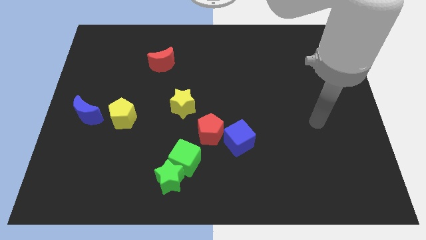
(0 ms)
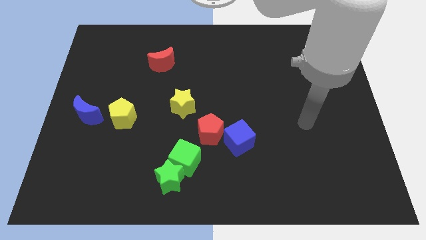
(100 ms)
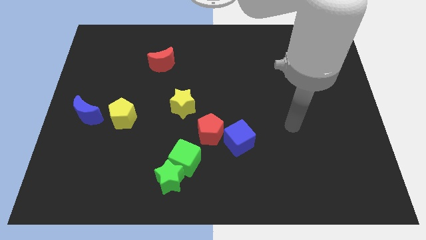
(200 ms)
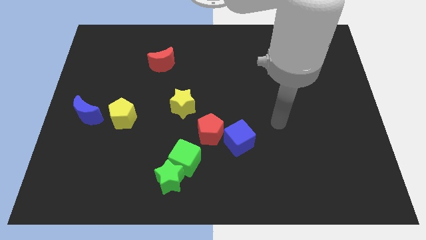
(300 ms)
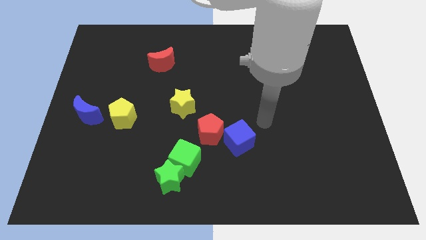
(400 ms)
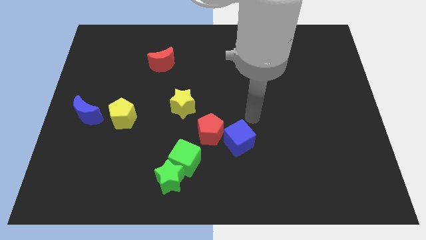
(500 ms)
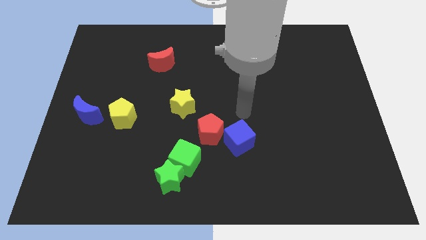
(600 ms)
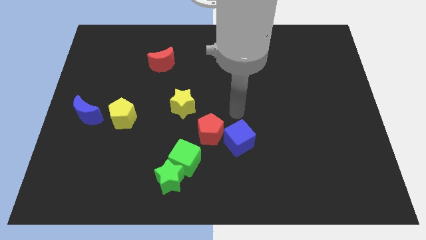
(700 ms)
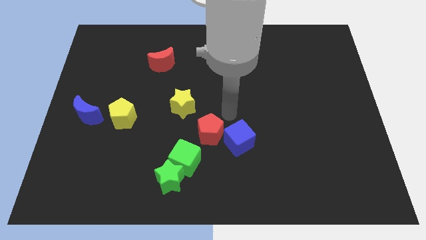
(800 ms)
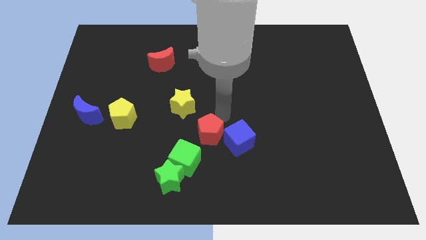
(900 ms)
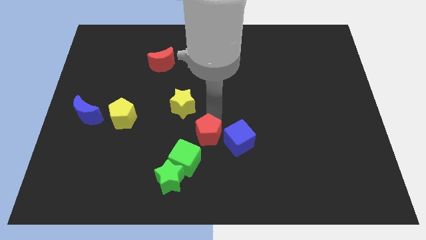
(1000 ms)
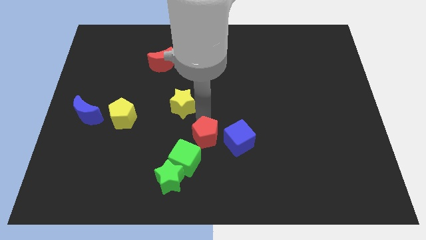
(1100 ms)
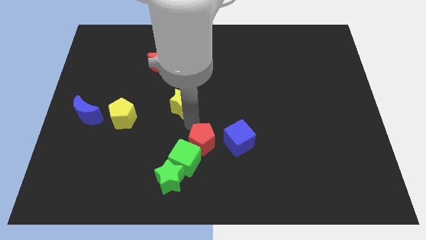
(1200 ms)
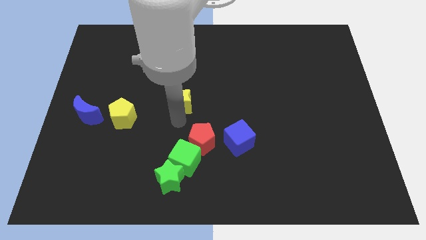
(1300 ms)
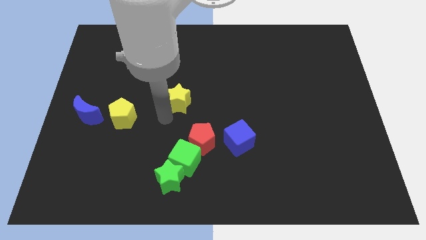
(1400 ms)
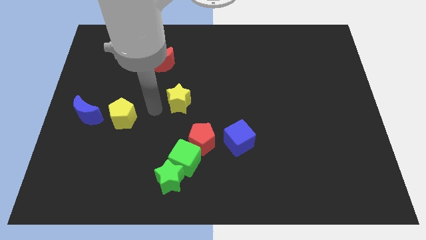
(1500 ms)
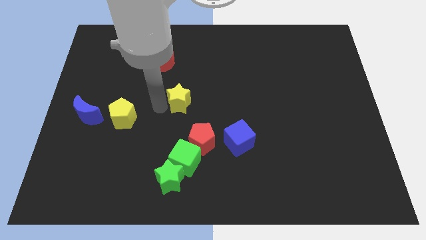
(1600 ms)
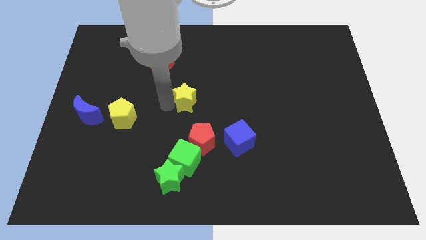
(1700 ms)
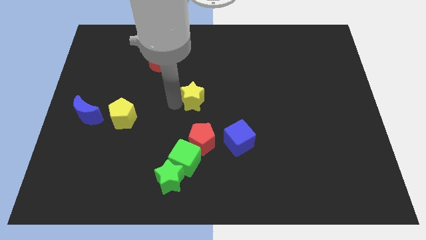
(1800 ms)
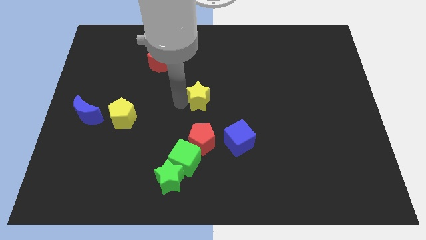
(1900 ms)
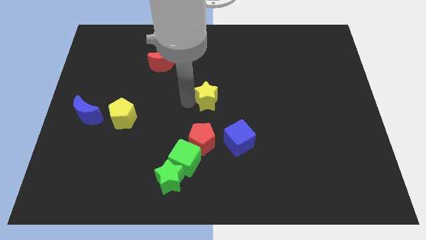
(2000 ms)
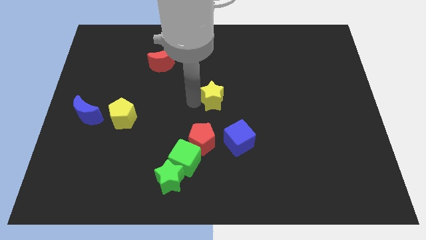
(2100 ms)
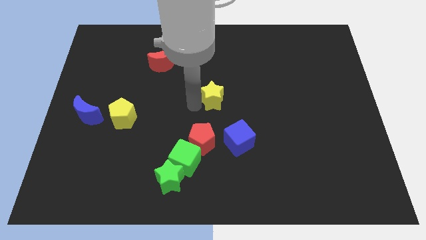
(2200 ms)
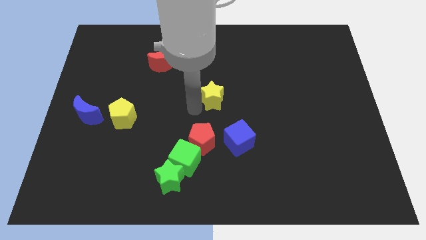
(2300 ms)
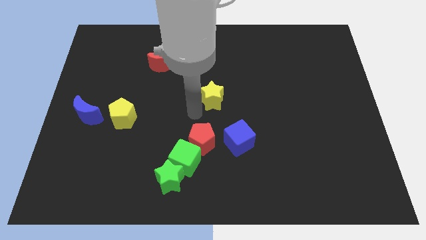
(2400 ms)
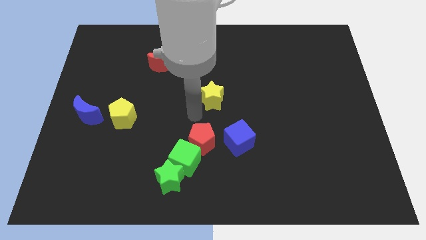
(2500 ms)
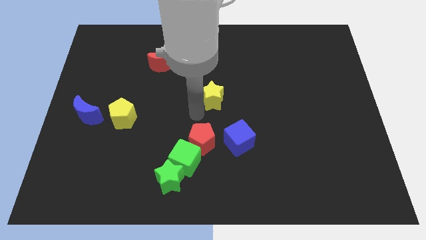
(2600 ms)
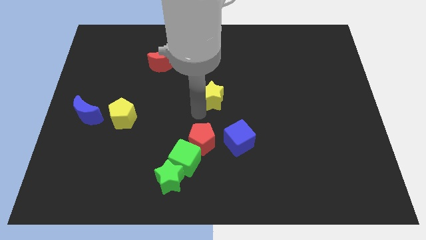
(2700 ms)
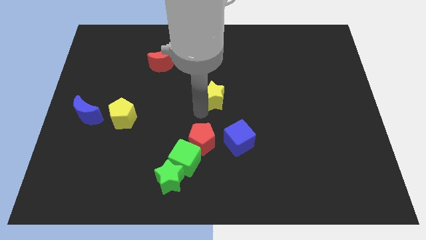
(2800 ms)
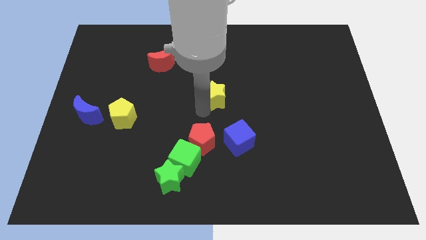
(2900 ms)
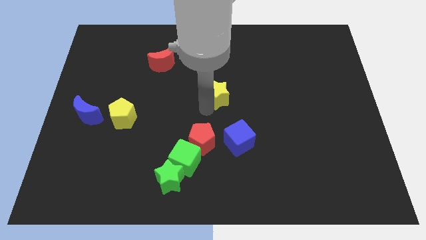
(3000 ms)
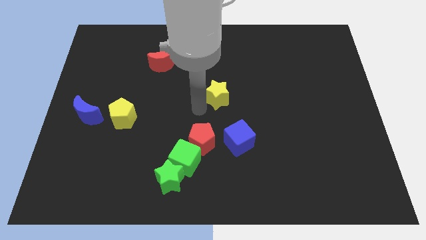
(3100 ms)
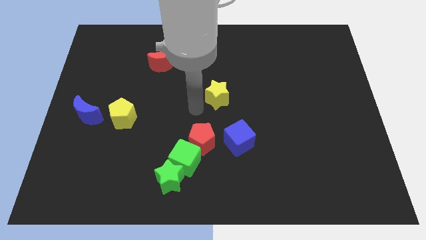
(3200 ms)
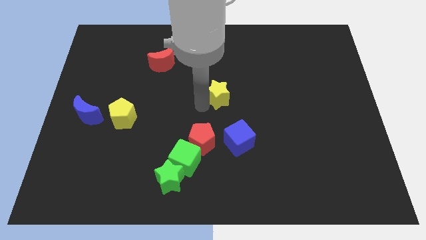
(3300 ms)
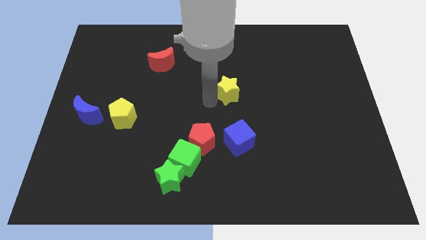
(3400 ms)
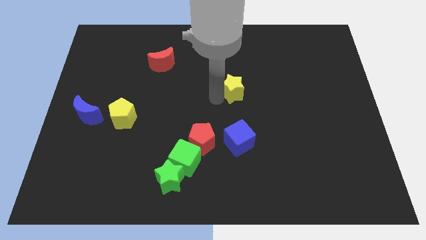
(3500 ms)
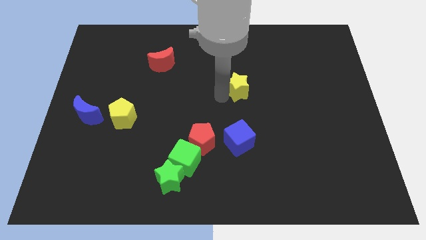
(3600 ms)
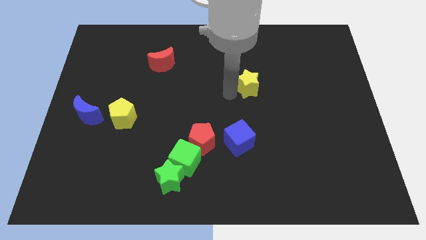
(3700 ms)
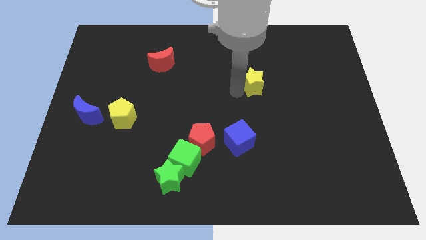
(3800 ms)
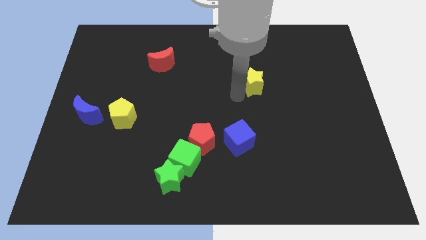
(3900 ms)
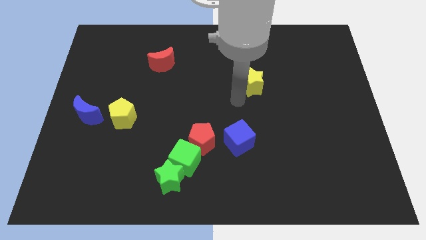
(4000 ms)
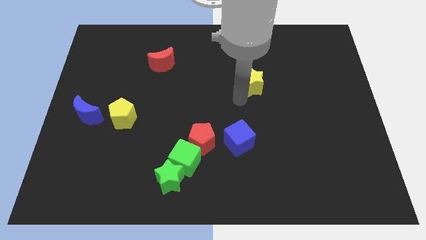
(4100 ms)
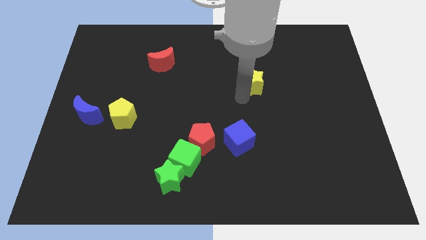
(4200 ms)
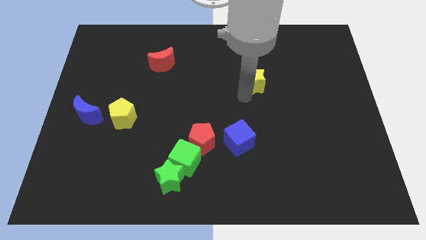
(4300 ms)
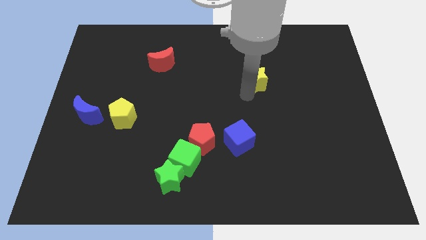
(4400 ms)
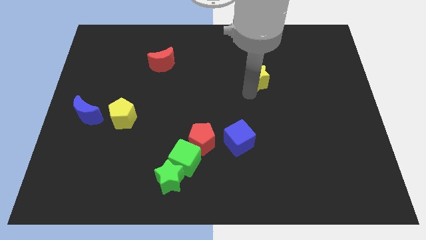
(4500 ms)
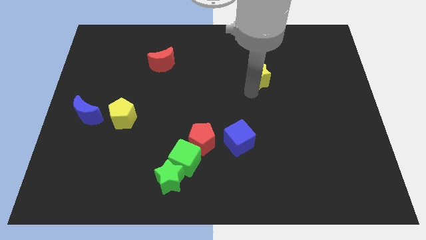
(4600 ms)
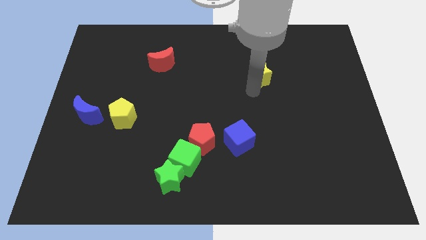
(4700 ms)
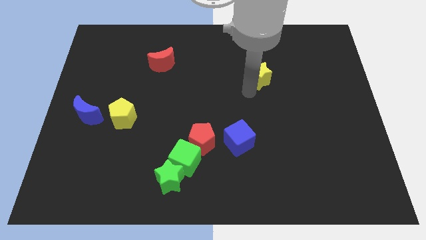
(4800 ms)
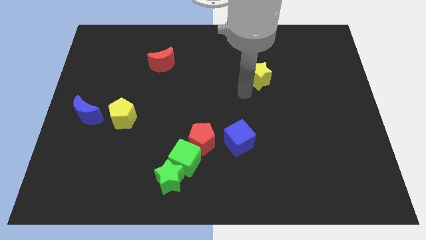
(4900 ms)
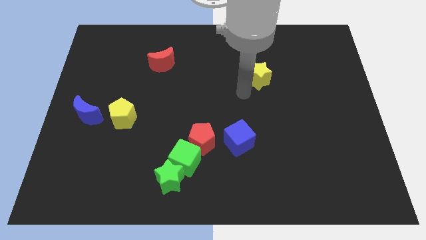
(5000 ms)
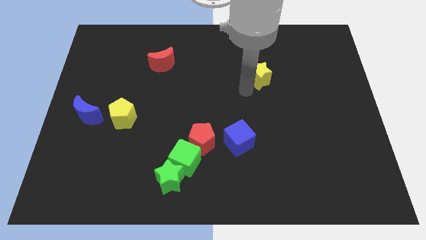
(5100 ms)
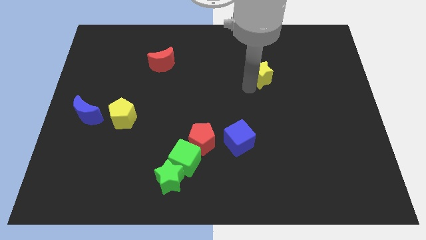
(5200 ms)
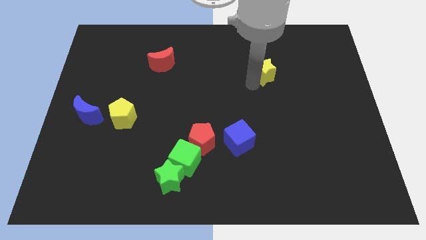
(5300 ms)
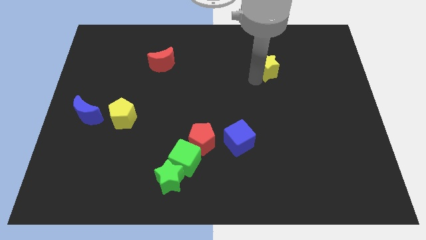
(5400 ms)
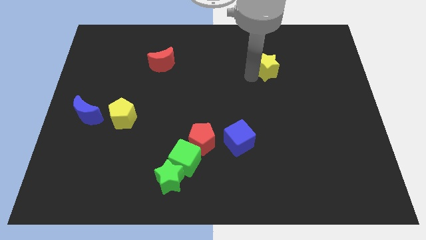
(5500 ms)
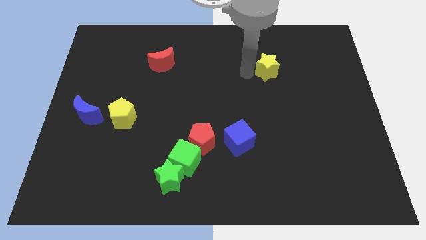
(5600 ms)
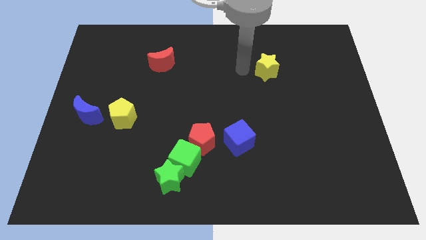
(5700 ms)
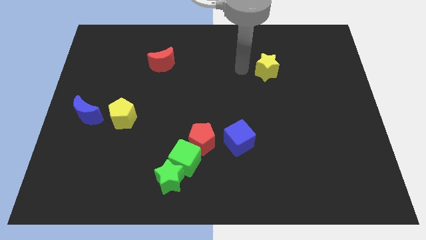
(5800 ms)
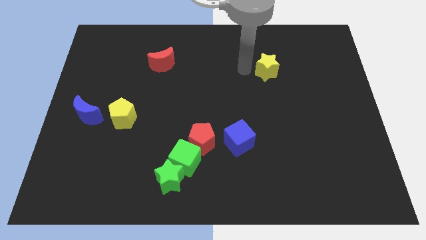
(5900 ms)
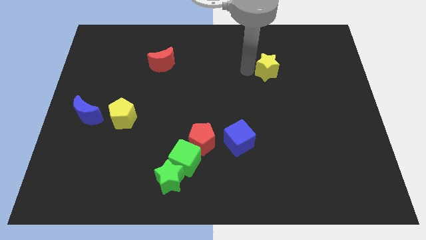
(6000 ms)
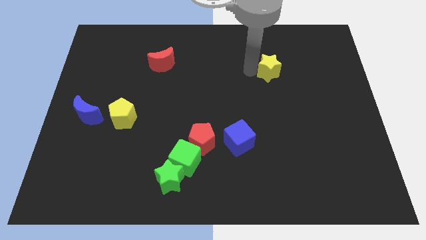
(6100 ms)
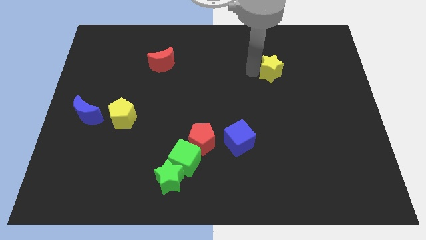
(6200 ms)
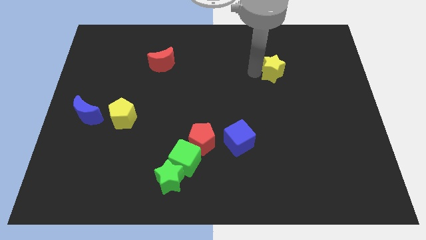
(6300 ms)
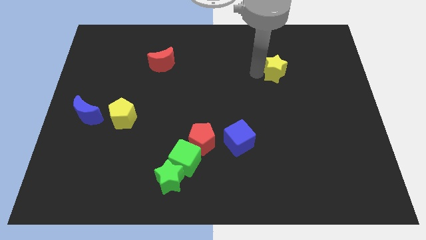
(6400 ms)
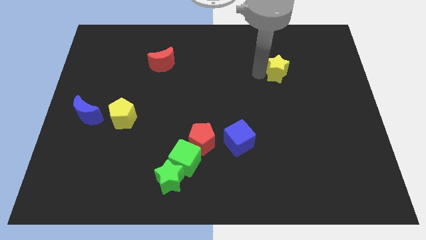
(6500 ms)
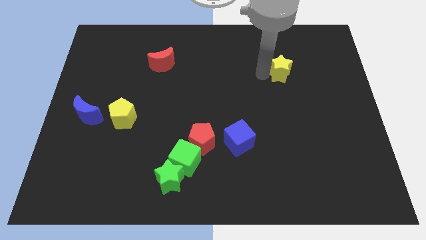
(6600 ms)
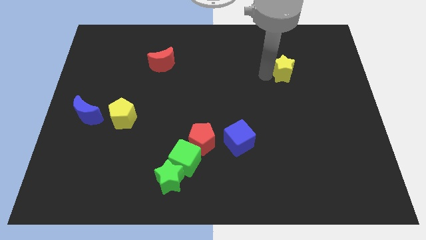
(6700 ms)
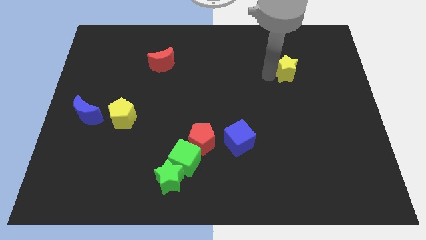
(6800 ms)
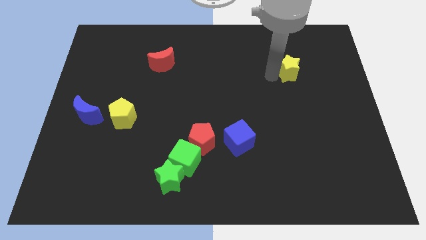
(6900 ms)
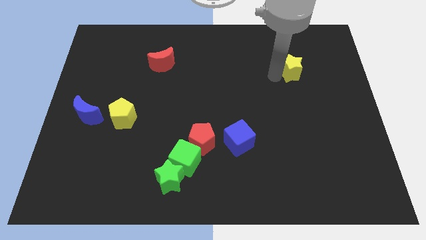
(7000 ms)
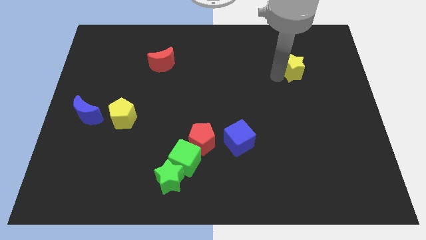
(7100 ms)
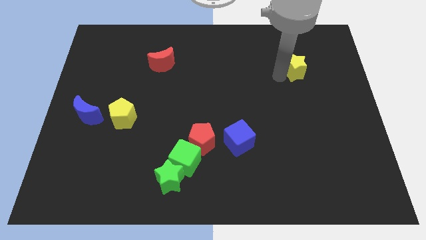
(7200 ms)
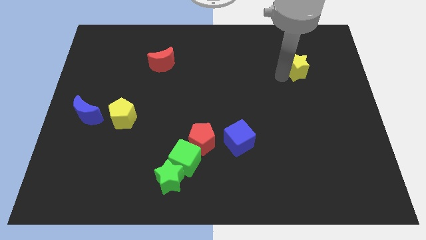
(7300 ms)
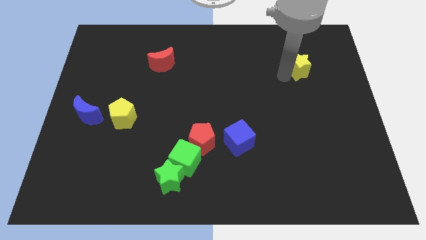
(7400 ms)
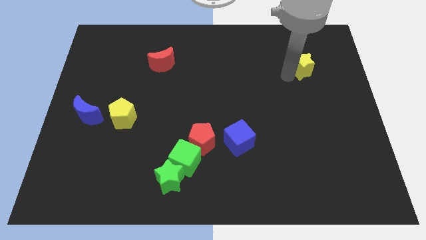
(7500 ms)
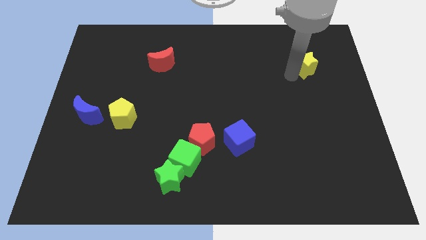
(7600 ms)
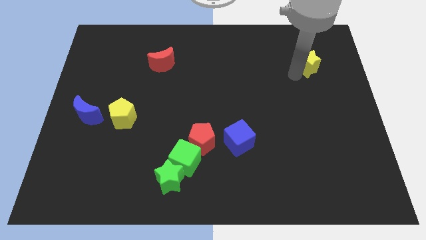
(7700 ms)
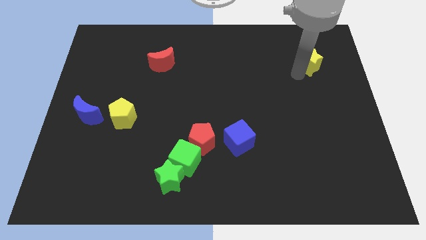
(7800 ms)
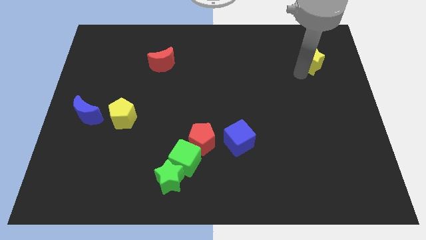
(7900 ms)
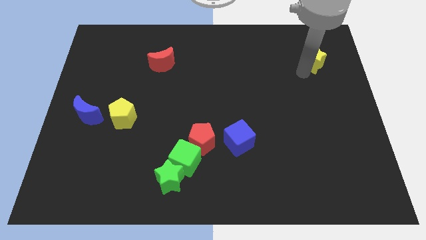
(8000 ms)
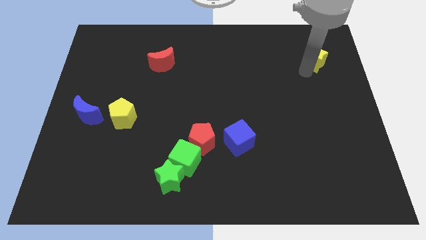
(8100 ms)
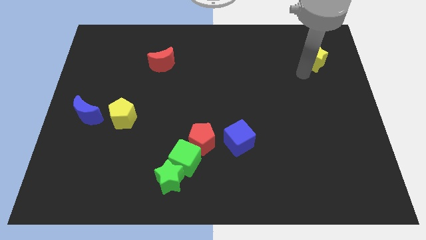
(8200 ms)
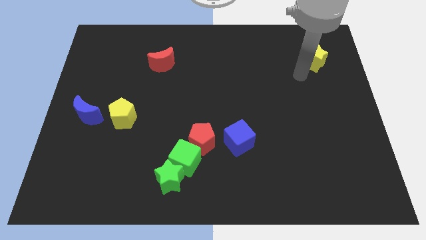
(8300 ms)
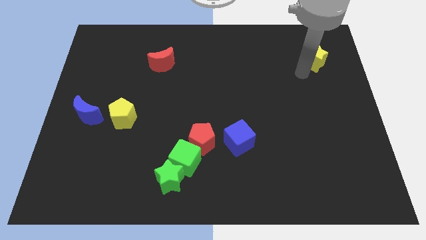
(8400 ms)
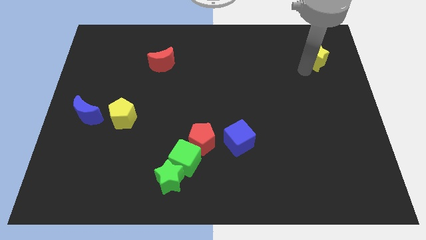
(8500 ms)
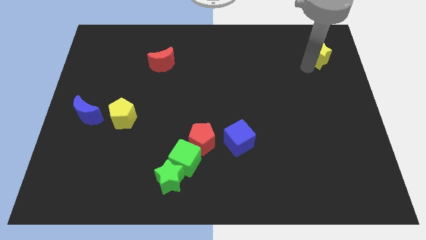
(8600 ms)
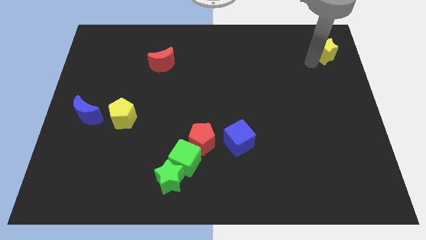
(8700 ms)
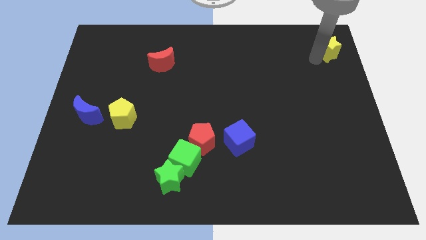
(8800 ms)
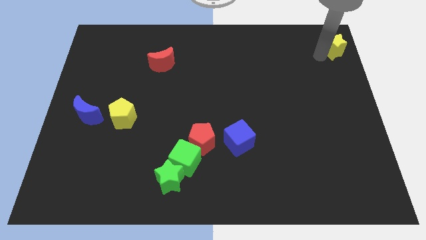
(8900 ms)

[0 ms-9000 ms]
slide the yellow star to the top right corner
